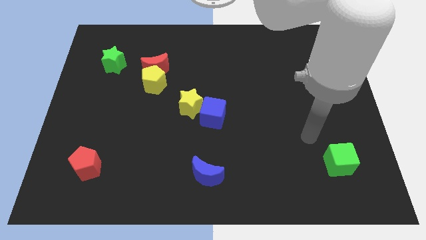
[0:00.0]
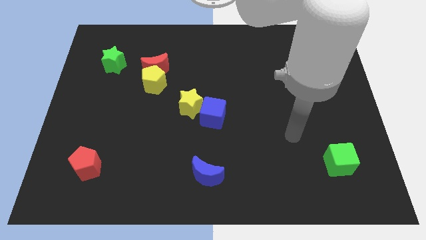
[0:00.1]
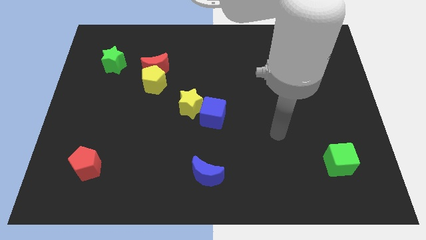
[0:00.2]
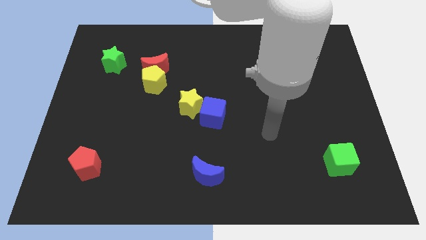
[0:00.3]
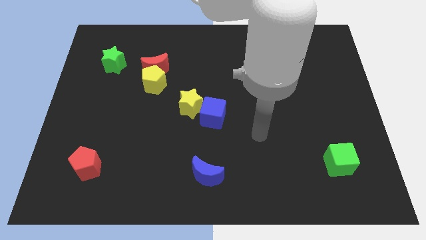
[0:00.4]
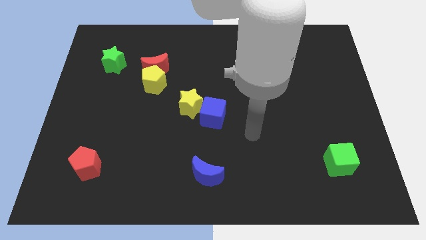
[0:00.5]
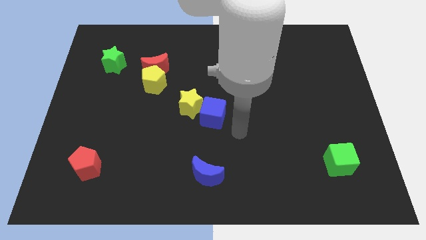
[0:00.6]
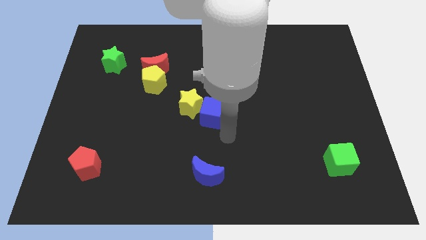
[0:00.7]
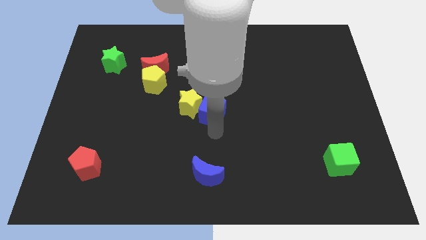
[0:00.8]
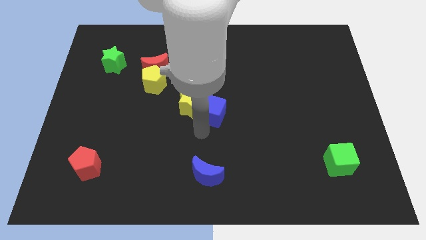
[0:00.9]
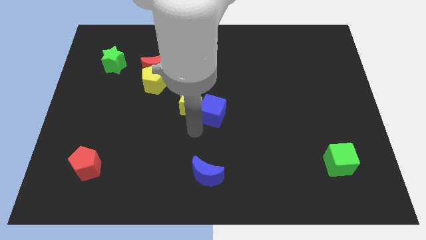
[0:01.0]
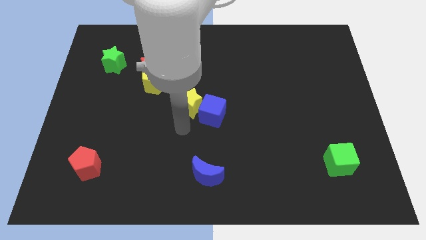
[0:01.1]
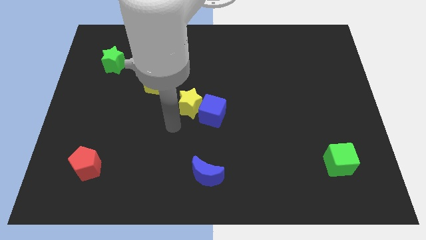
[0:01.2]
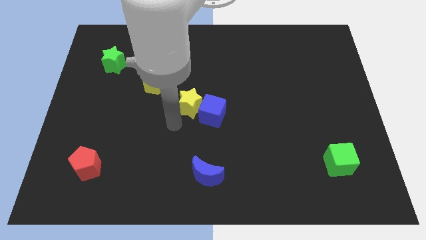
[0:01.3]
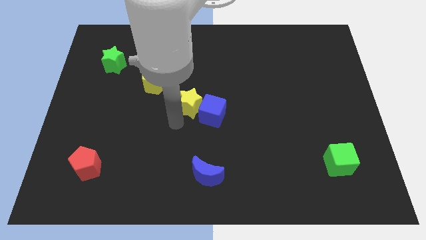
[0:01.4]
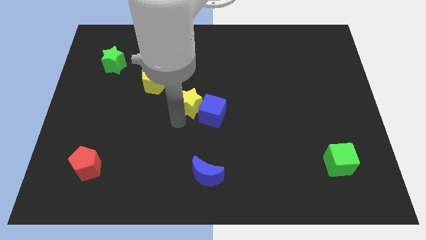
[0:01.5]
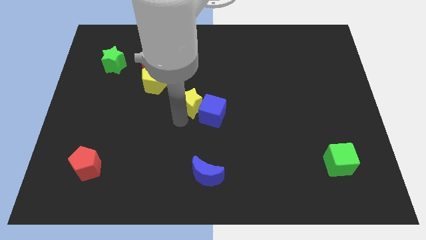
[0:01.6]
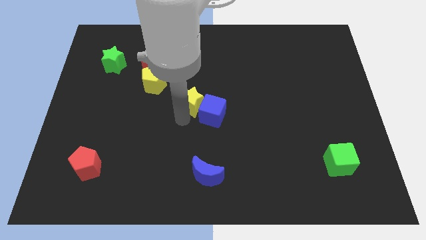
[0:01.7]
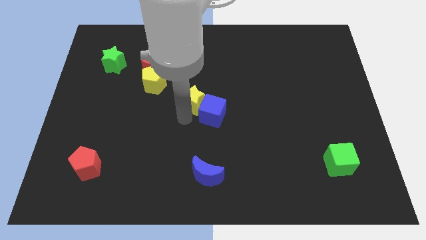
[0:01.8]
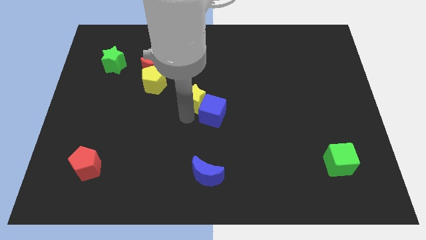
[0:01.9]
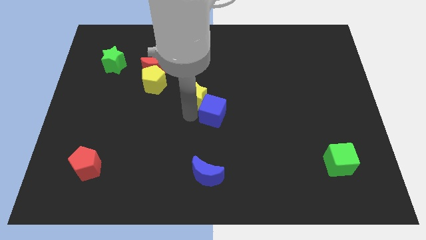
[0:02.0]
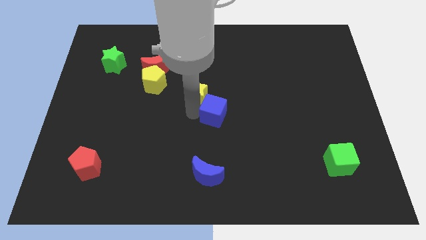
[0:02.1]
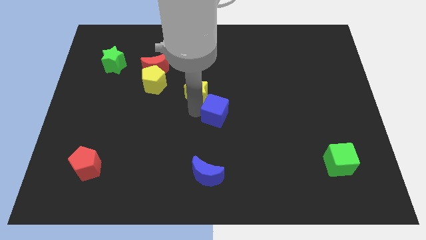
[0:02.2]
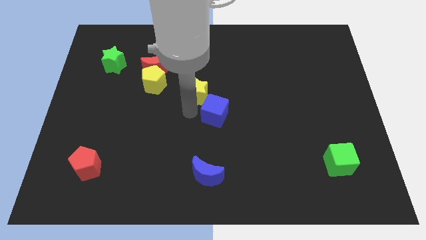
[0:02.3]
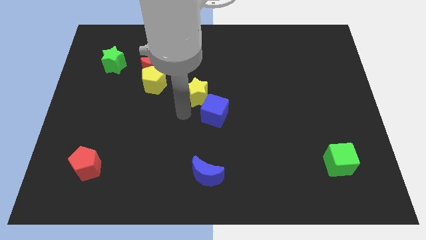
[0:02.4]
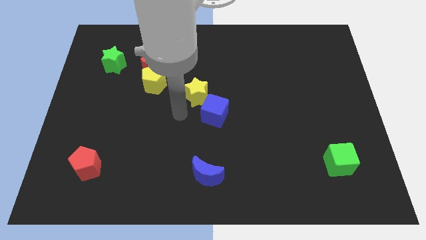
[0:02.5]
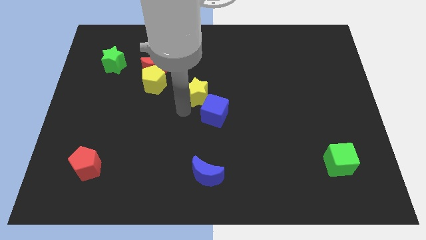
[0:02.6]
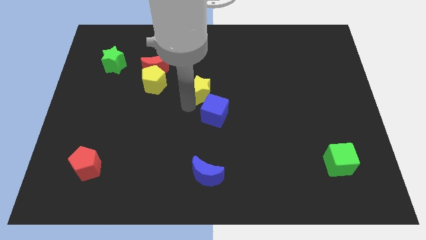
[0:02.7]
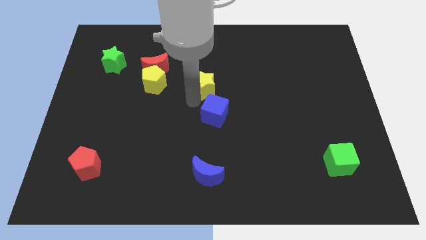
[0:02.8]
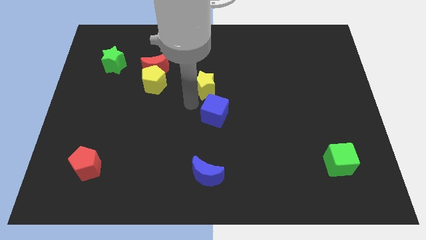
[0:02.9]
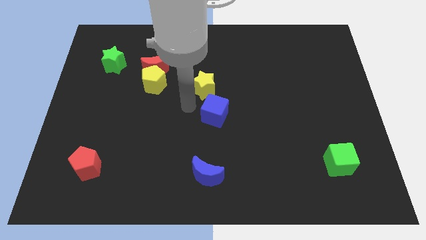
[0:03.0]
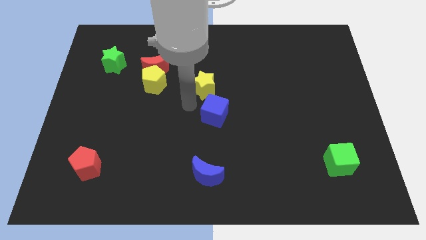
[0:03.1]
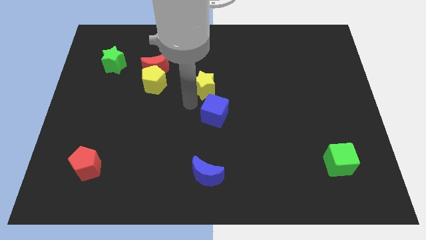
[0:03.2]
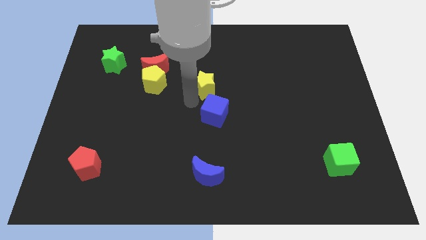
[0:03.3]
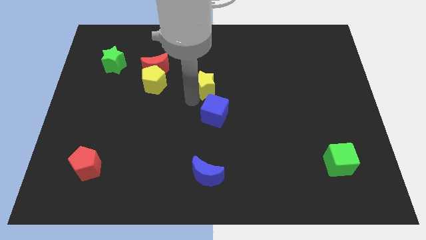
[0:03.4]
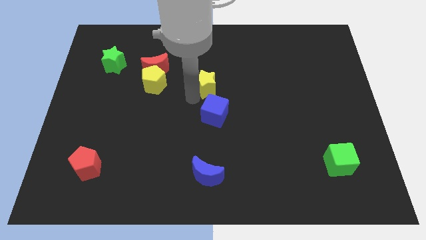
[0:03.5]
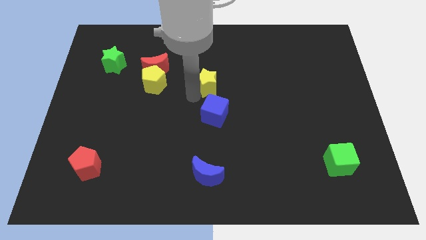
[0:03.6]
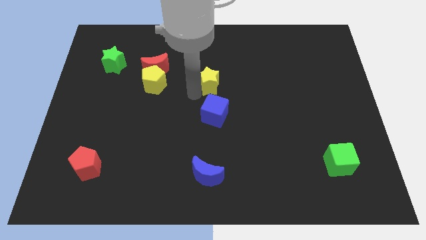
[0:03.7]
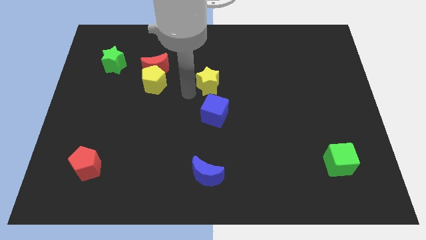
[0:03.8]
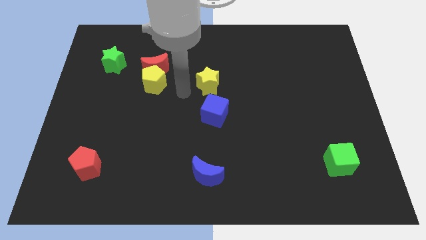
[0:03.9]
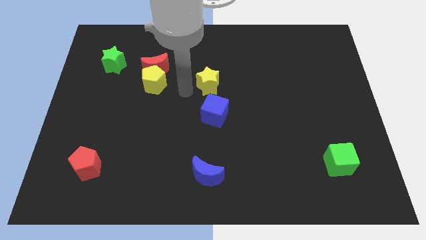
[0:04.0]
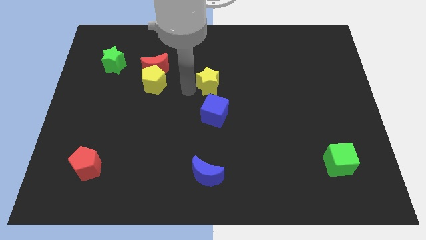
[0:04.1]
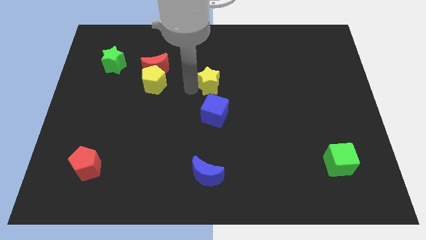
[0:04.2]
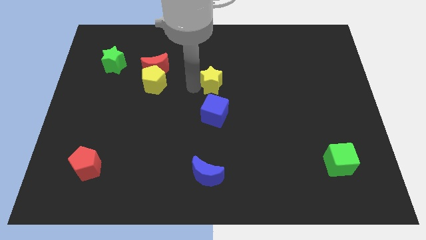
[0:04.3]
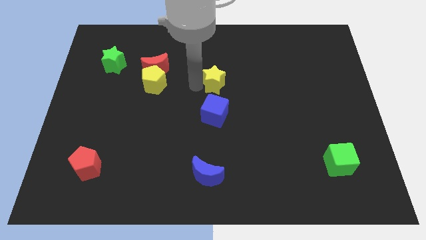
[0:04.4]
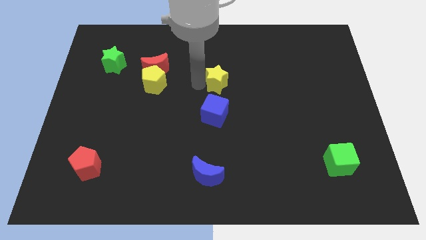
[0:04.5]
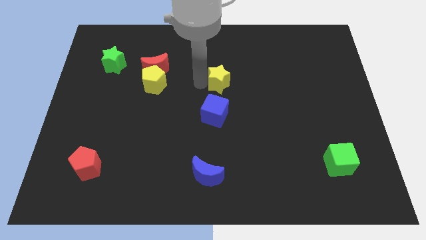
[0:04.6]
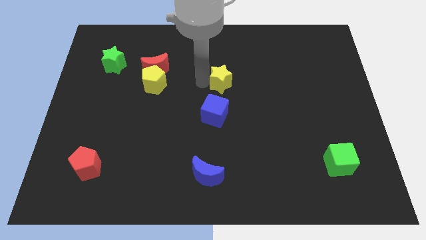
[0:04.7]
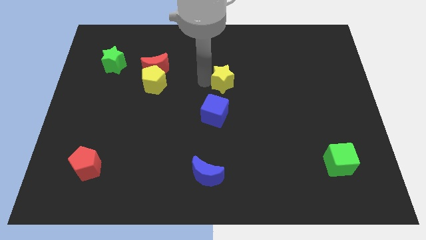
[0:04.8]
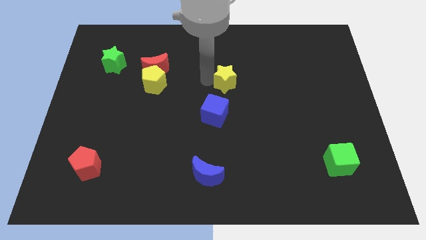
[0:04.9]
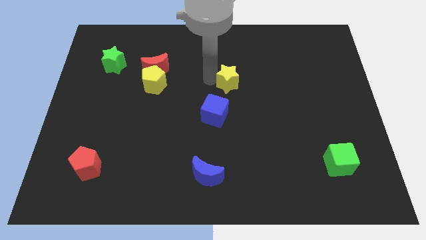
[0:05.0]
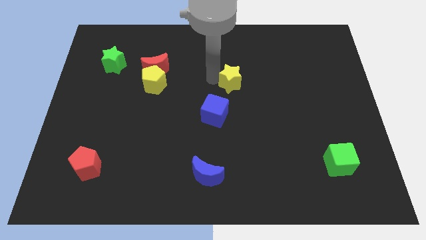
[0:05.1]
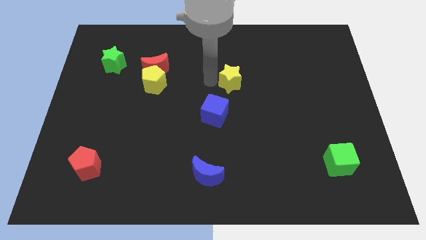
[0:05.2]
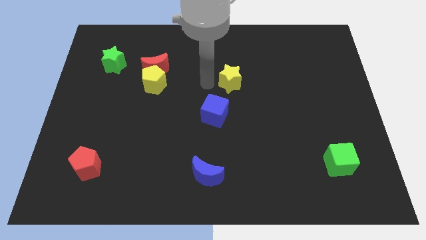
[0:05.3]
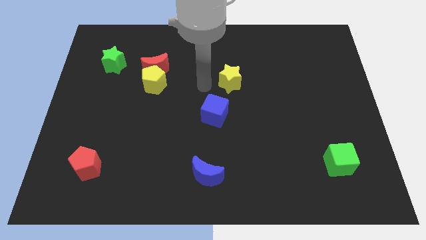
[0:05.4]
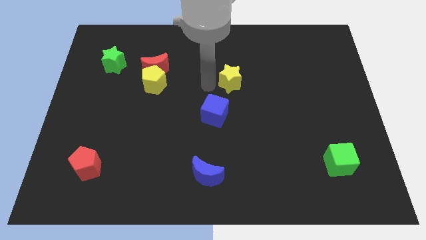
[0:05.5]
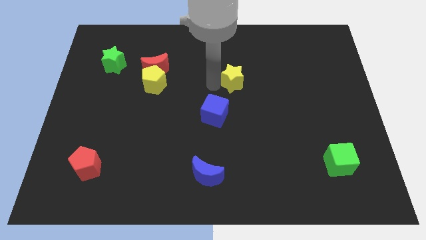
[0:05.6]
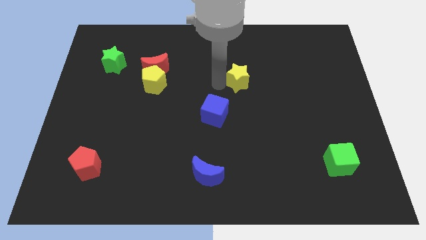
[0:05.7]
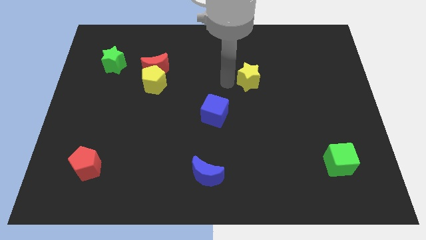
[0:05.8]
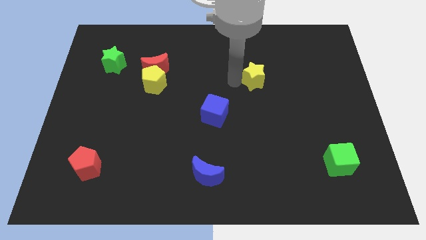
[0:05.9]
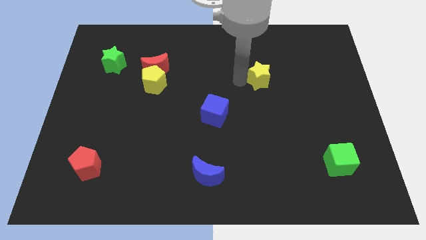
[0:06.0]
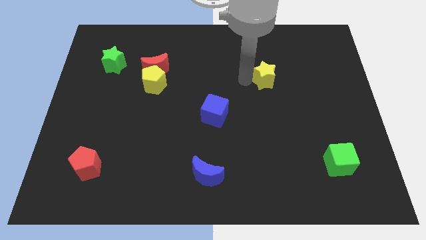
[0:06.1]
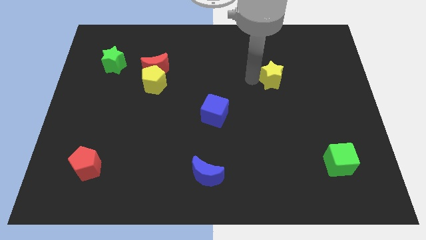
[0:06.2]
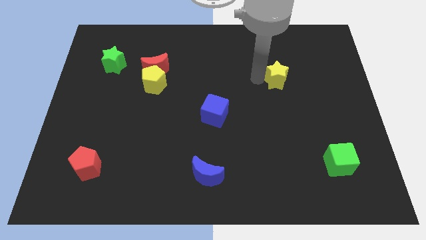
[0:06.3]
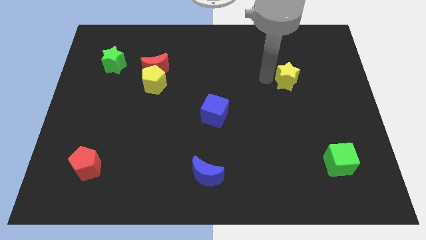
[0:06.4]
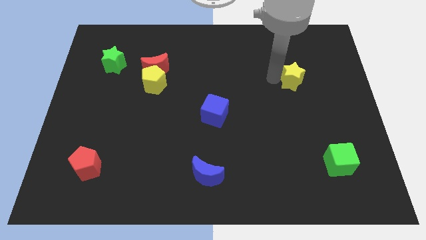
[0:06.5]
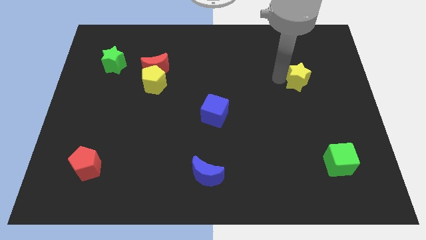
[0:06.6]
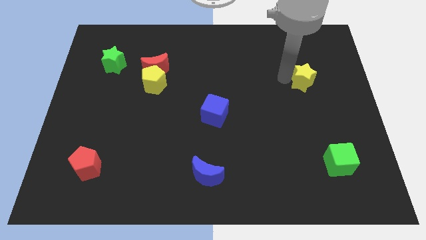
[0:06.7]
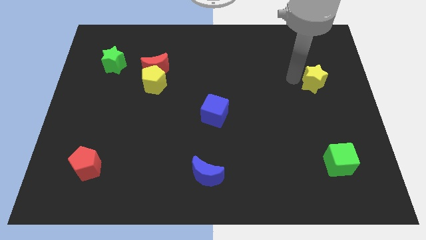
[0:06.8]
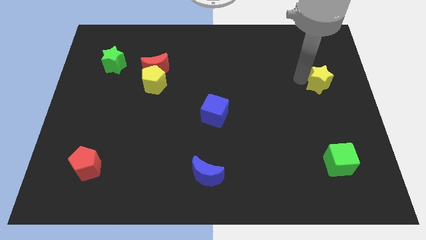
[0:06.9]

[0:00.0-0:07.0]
push the yellow star to the center right
